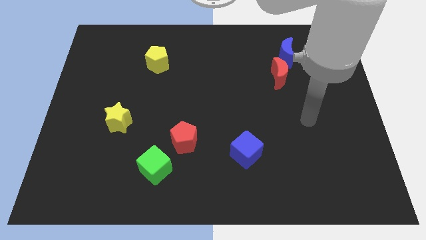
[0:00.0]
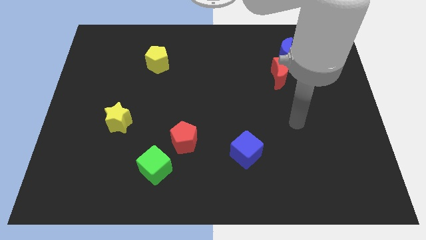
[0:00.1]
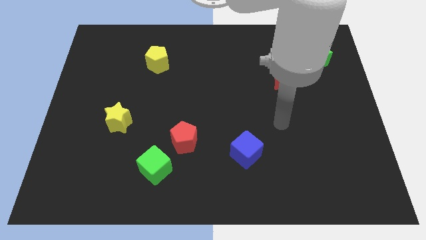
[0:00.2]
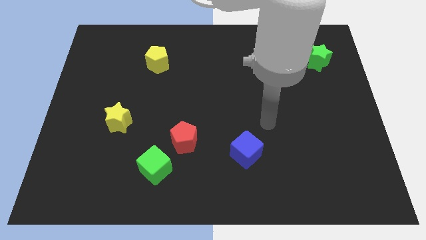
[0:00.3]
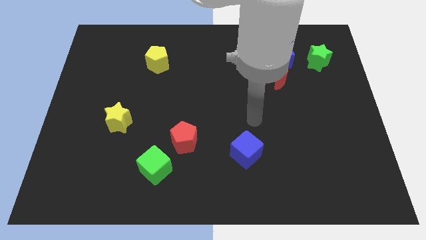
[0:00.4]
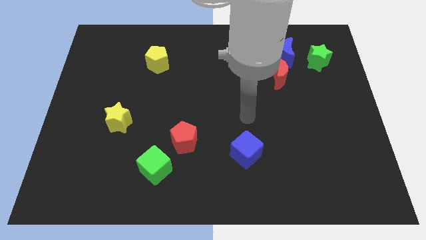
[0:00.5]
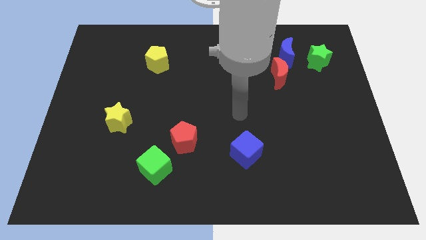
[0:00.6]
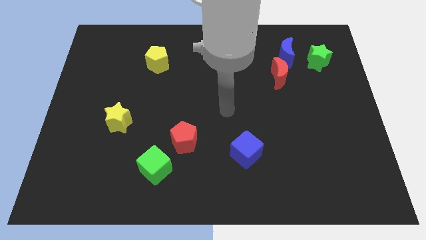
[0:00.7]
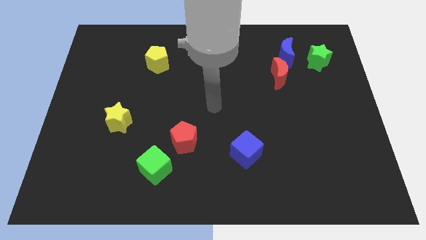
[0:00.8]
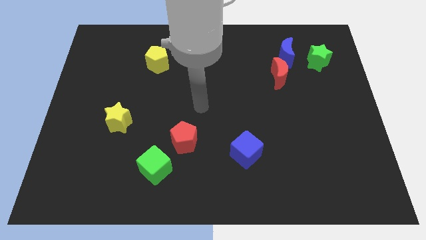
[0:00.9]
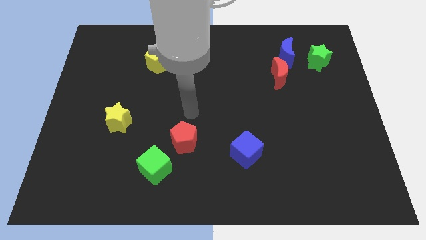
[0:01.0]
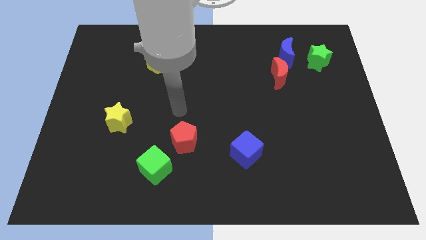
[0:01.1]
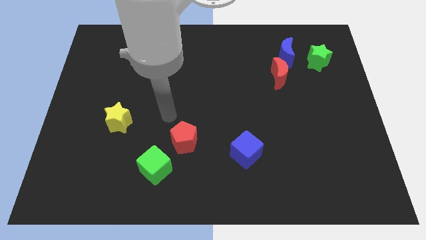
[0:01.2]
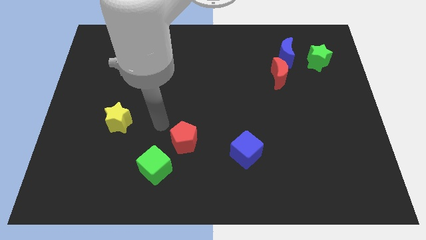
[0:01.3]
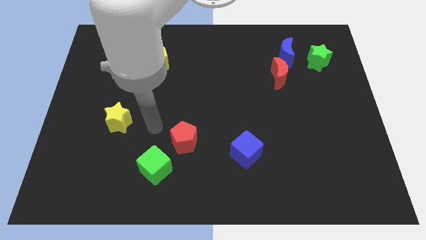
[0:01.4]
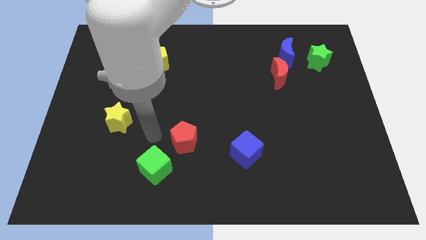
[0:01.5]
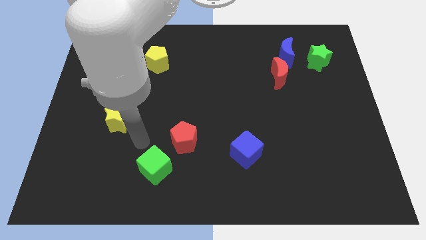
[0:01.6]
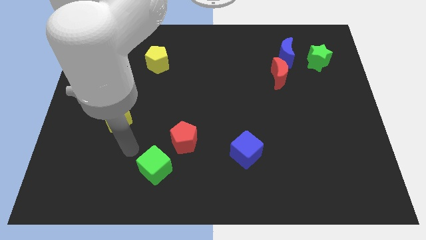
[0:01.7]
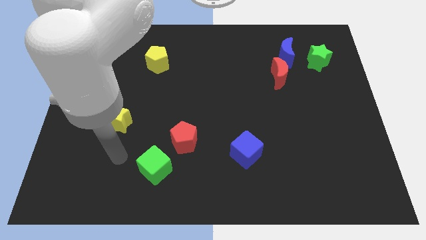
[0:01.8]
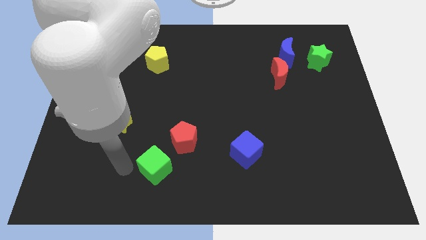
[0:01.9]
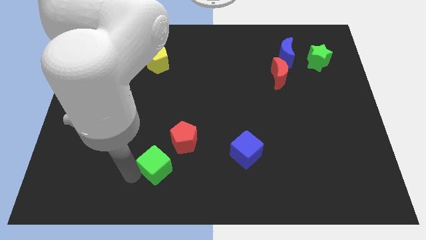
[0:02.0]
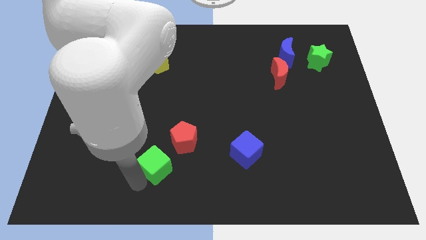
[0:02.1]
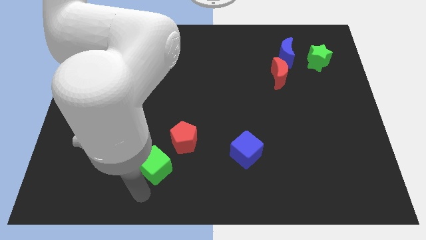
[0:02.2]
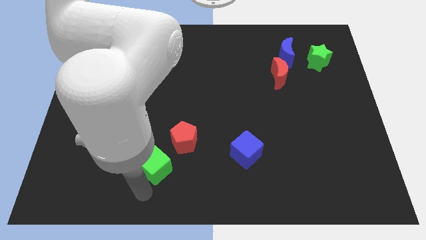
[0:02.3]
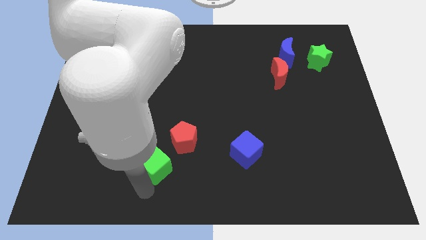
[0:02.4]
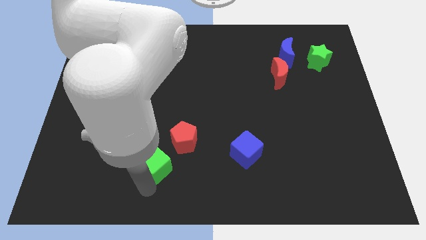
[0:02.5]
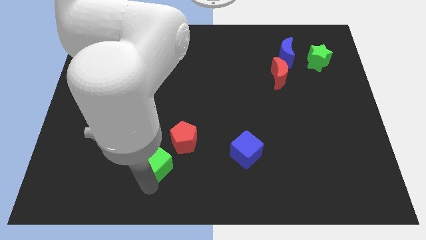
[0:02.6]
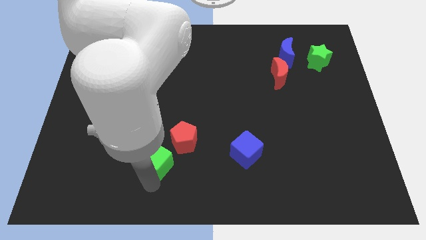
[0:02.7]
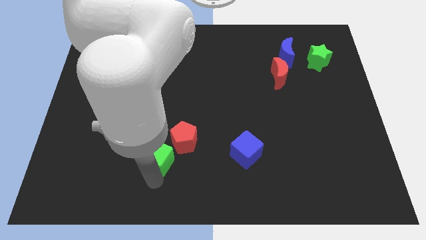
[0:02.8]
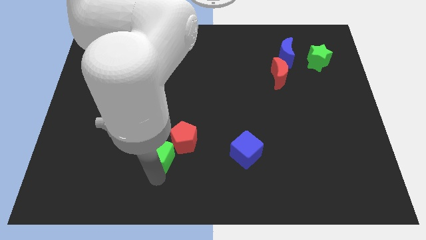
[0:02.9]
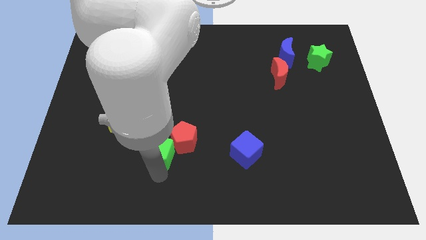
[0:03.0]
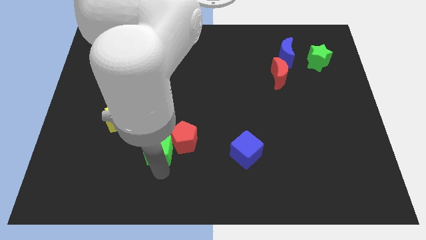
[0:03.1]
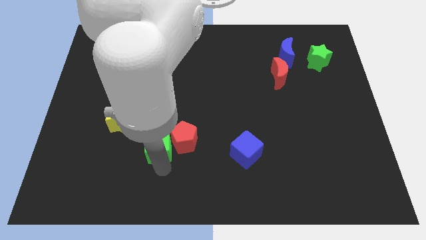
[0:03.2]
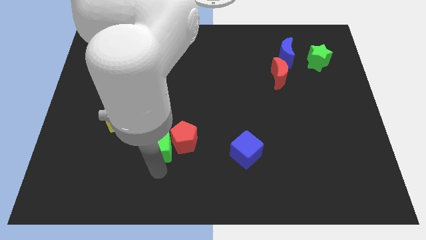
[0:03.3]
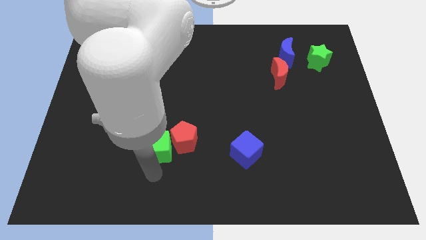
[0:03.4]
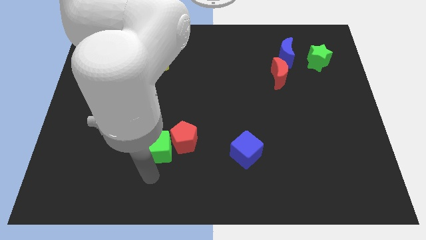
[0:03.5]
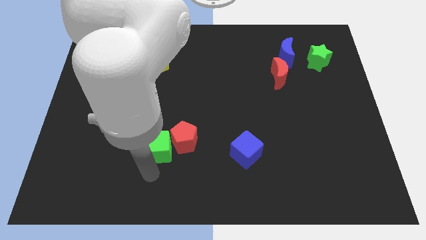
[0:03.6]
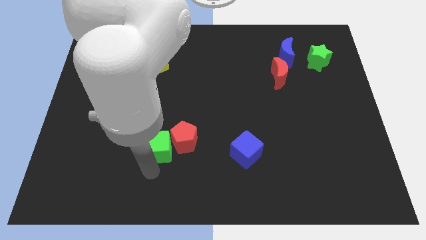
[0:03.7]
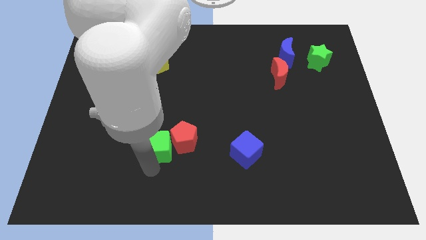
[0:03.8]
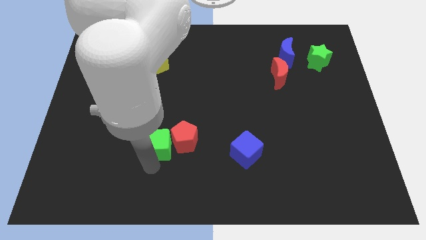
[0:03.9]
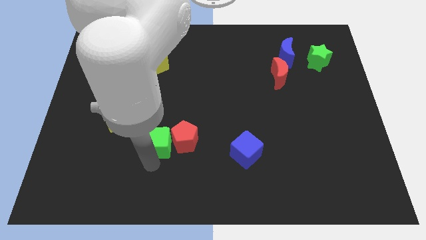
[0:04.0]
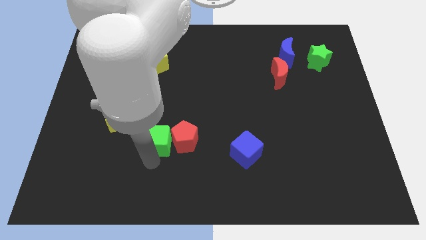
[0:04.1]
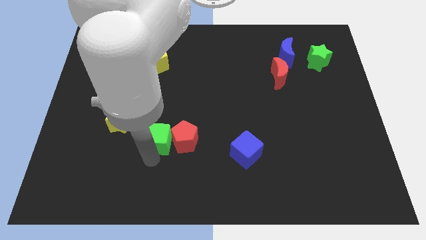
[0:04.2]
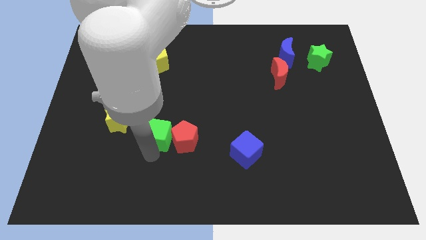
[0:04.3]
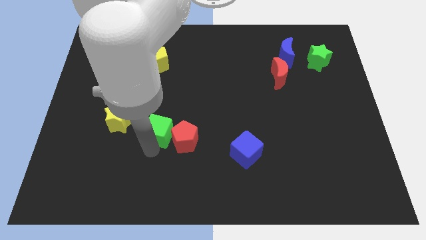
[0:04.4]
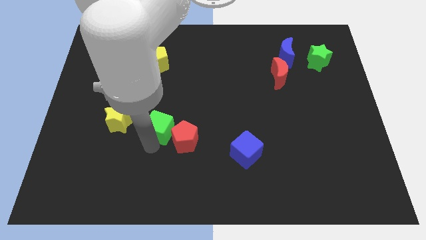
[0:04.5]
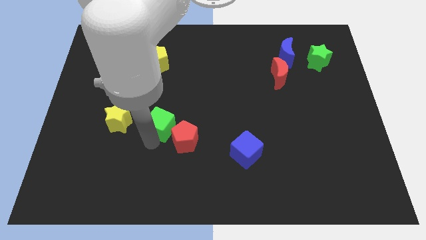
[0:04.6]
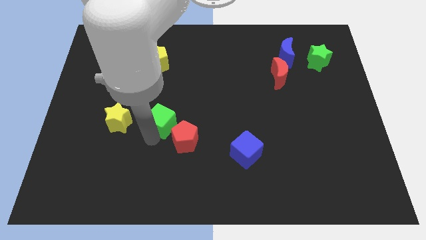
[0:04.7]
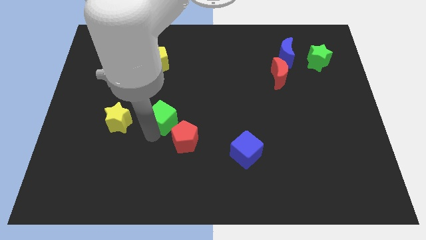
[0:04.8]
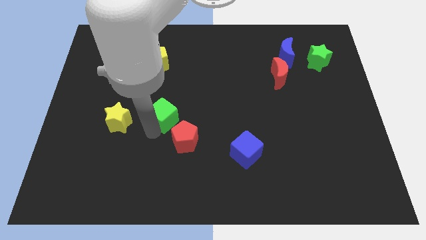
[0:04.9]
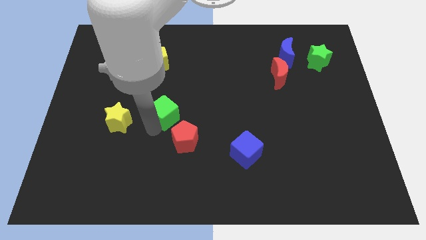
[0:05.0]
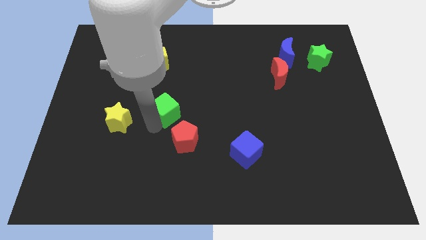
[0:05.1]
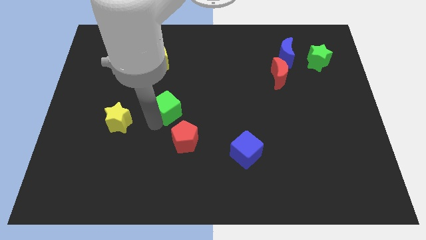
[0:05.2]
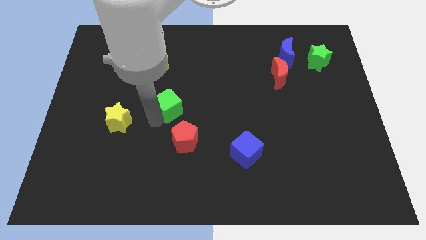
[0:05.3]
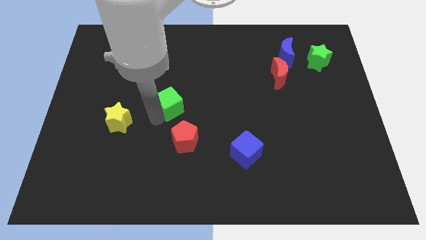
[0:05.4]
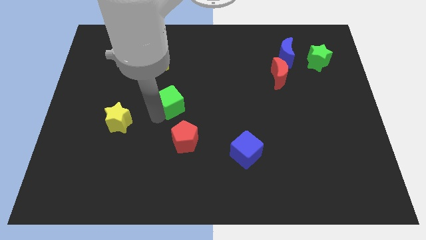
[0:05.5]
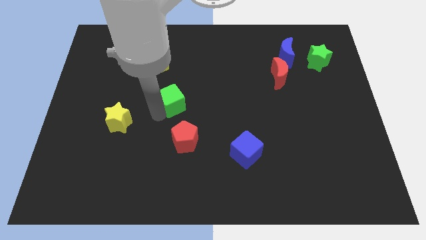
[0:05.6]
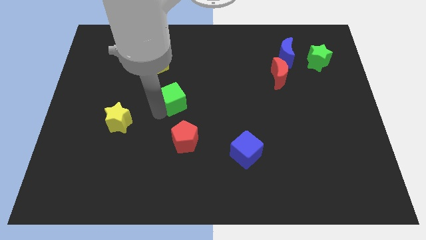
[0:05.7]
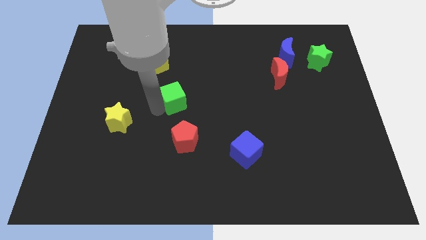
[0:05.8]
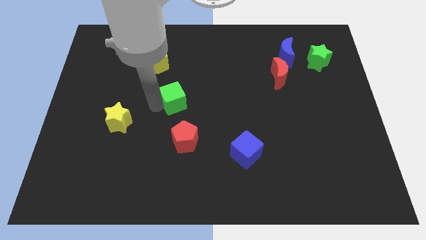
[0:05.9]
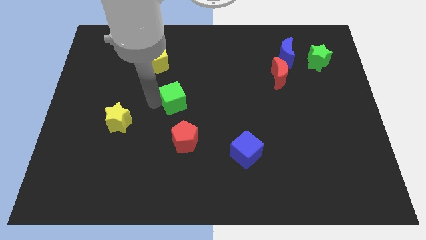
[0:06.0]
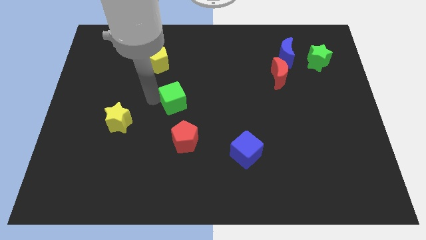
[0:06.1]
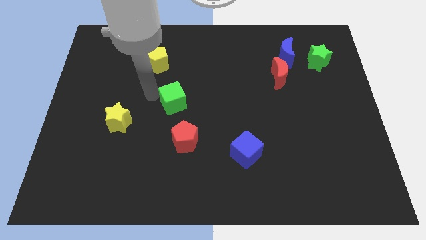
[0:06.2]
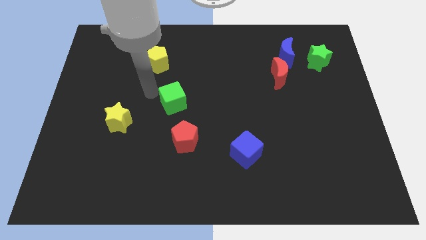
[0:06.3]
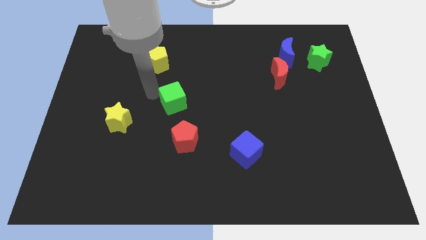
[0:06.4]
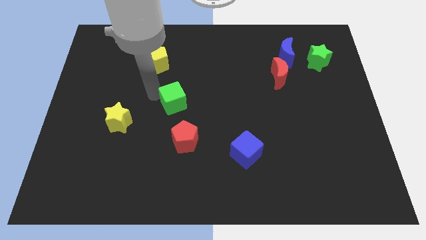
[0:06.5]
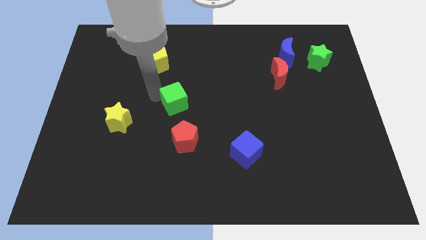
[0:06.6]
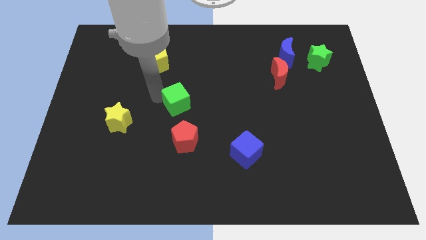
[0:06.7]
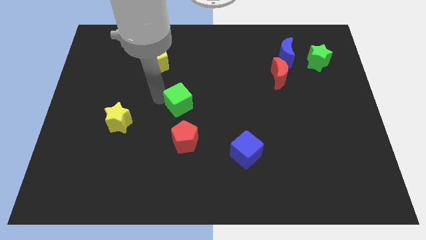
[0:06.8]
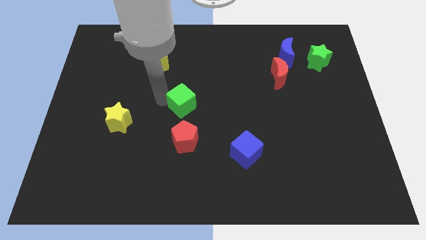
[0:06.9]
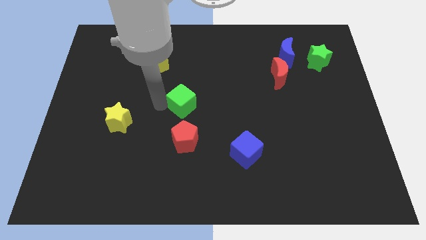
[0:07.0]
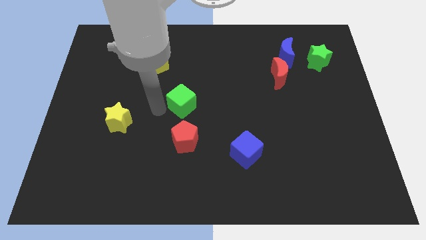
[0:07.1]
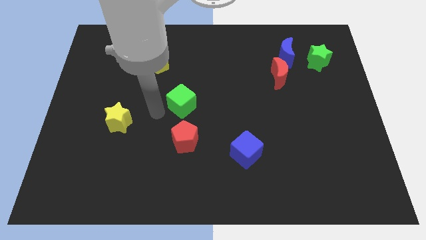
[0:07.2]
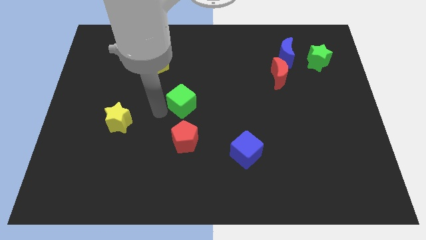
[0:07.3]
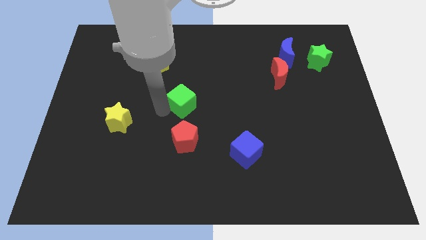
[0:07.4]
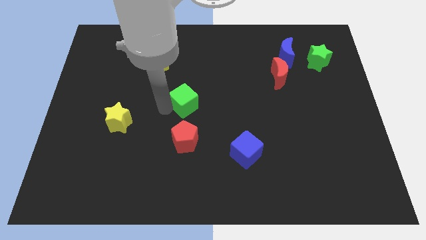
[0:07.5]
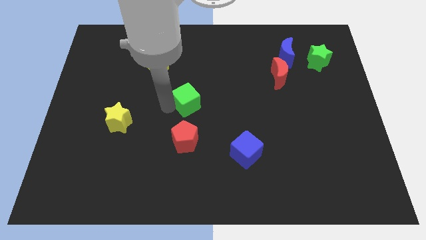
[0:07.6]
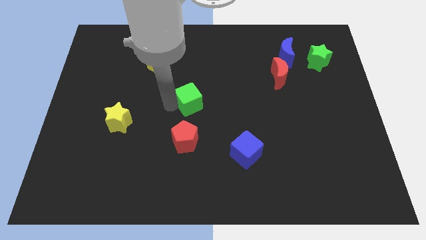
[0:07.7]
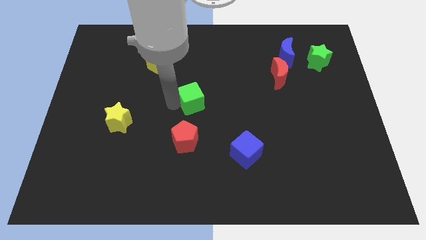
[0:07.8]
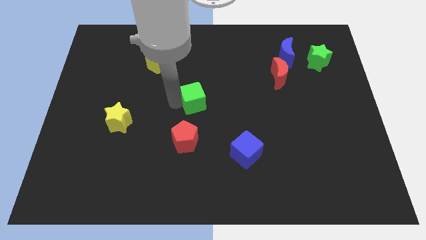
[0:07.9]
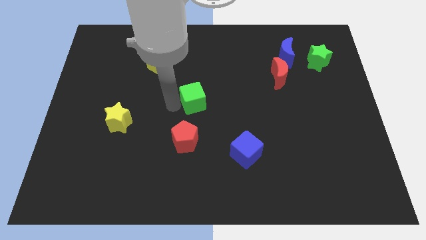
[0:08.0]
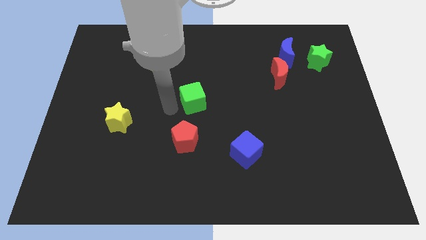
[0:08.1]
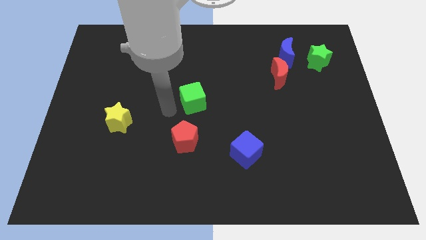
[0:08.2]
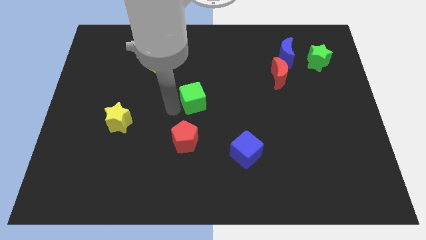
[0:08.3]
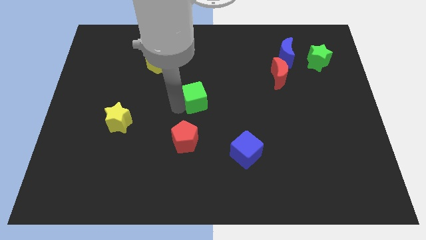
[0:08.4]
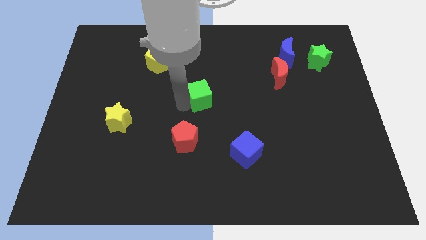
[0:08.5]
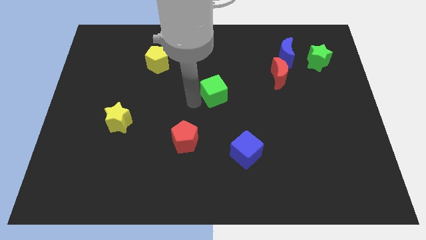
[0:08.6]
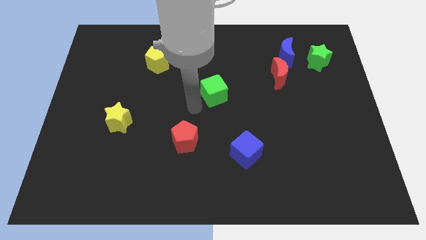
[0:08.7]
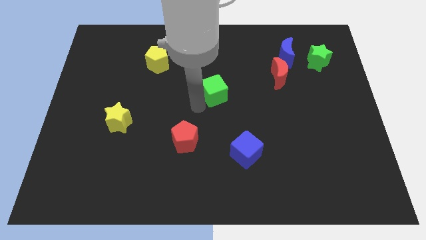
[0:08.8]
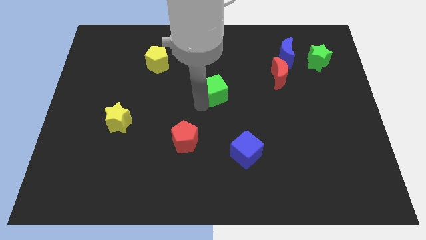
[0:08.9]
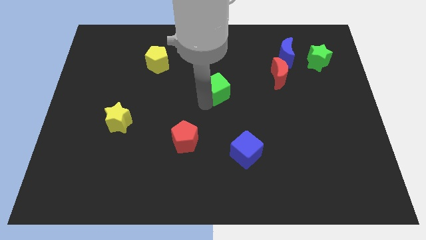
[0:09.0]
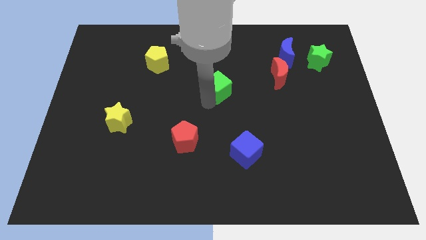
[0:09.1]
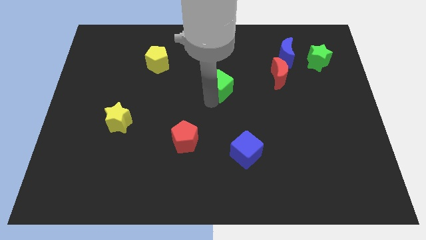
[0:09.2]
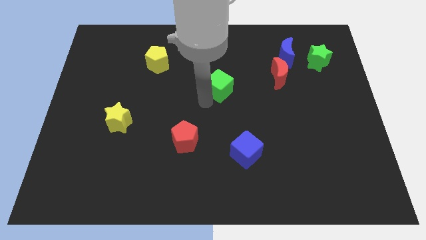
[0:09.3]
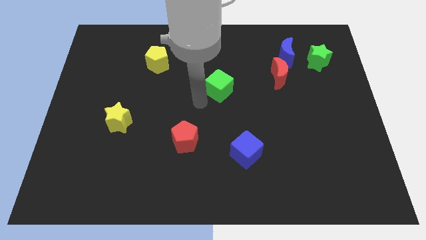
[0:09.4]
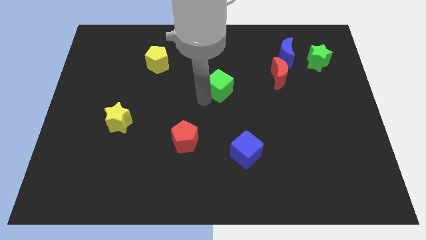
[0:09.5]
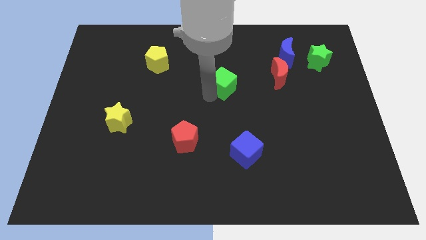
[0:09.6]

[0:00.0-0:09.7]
move the green cube just left of the red moon
